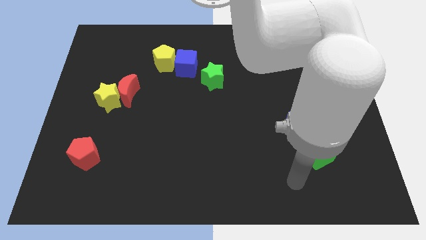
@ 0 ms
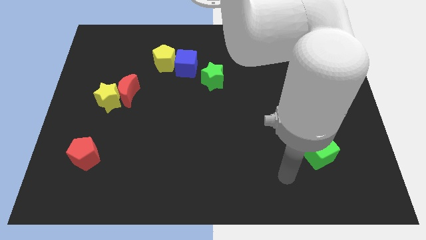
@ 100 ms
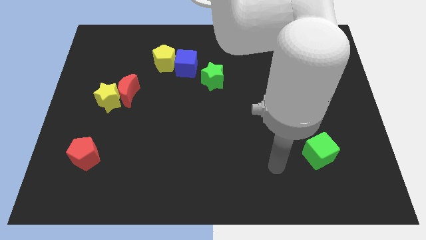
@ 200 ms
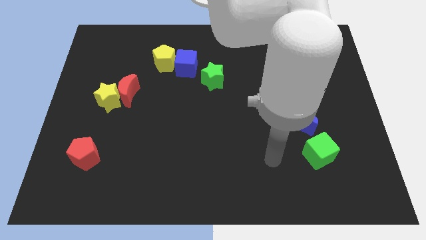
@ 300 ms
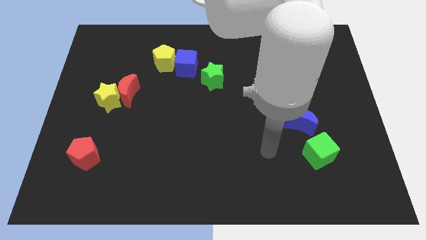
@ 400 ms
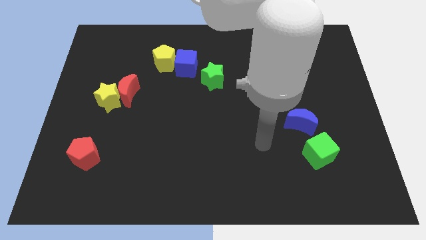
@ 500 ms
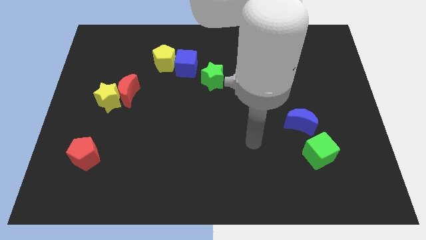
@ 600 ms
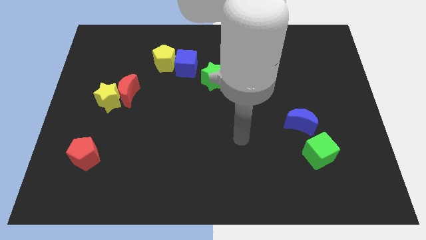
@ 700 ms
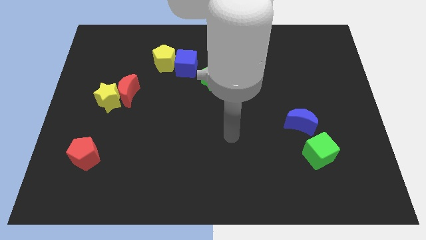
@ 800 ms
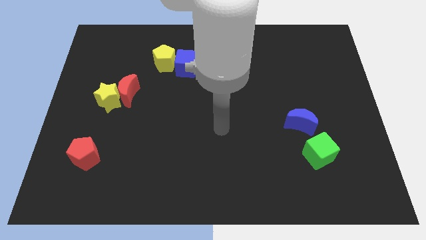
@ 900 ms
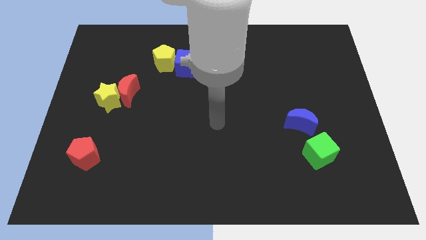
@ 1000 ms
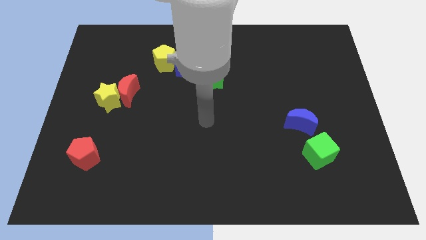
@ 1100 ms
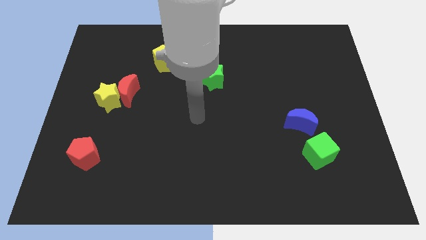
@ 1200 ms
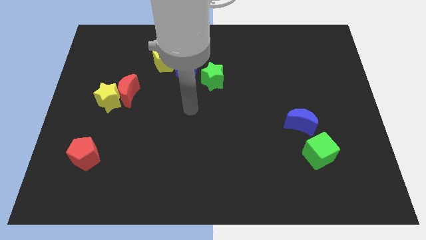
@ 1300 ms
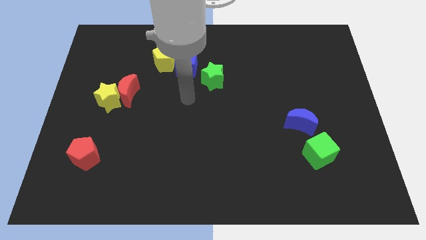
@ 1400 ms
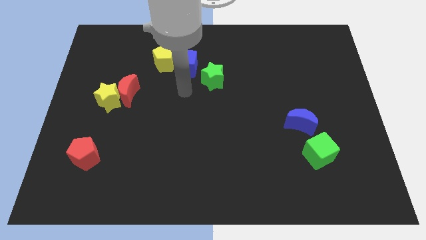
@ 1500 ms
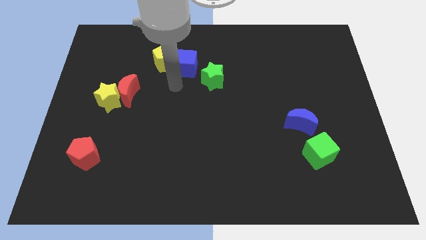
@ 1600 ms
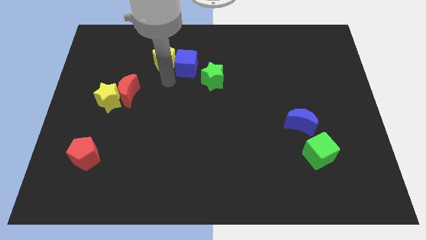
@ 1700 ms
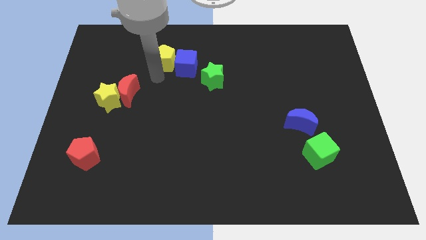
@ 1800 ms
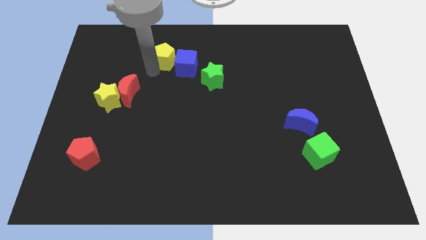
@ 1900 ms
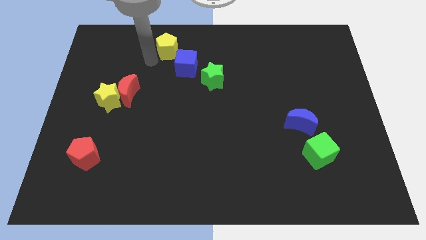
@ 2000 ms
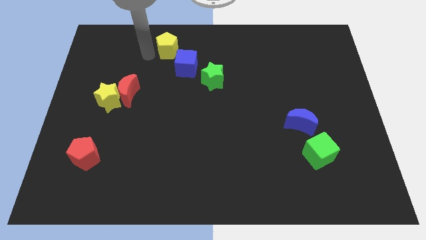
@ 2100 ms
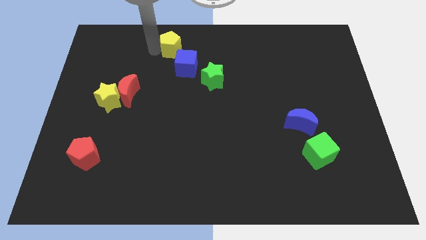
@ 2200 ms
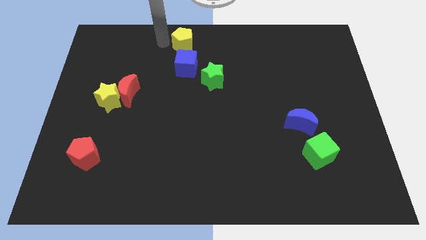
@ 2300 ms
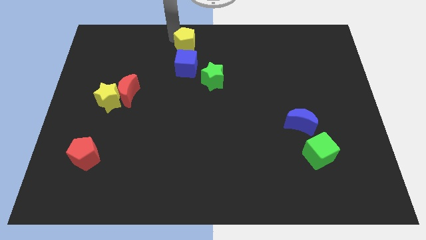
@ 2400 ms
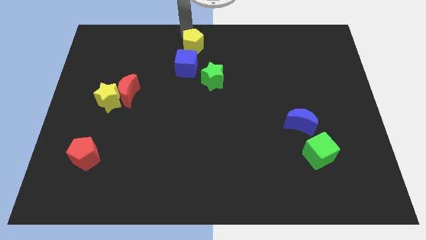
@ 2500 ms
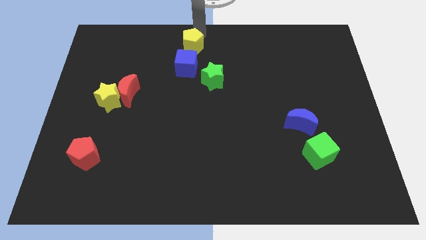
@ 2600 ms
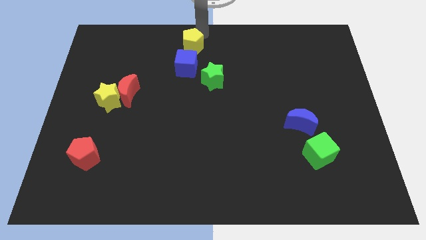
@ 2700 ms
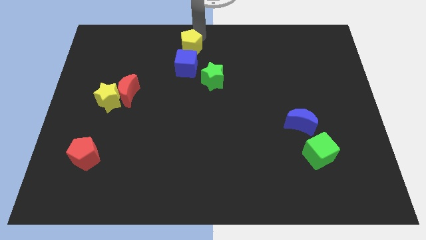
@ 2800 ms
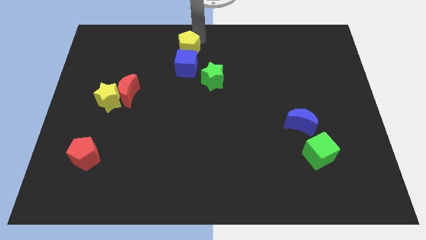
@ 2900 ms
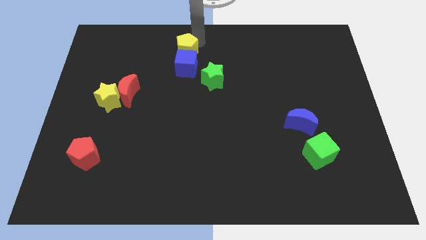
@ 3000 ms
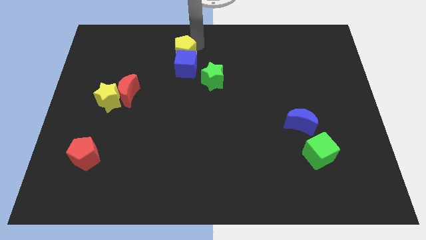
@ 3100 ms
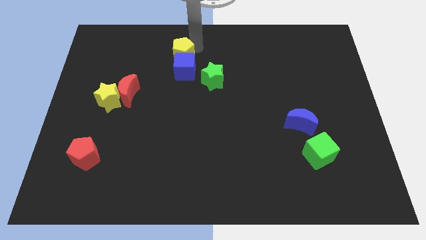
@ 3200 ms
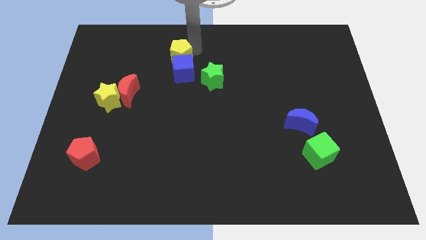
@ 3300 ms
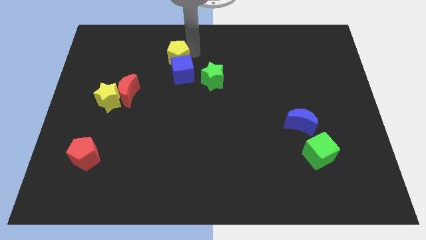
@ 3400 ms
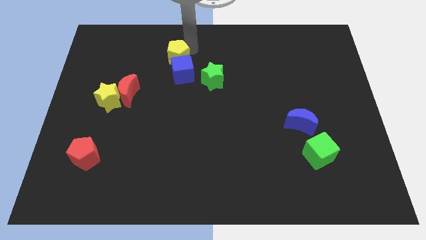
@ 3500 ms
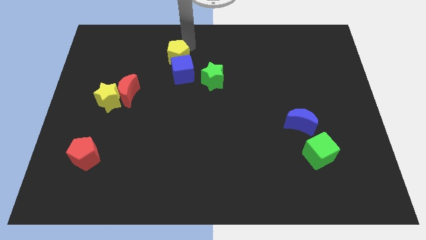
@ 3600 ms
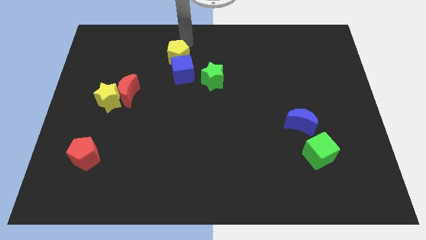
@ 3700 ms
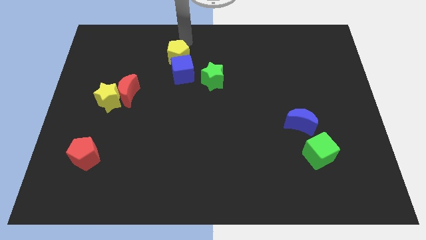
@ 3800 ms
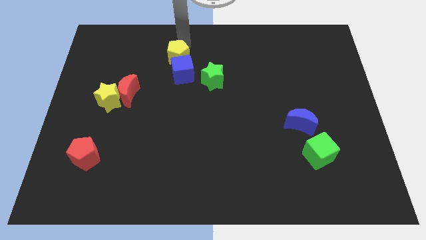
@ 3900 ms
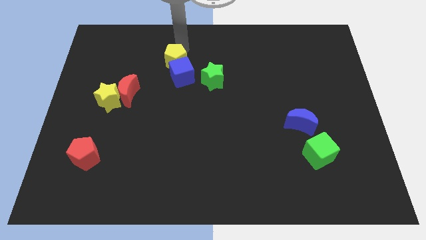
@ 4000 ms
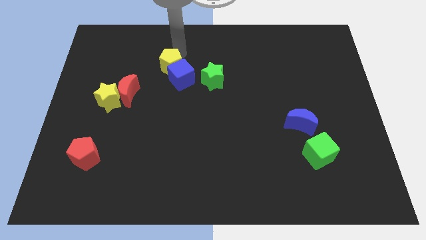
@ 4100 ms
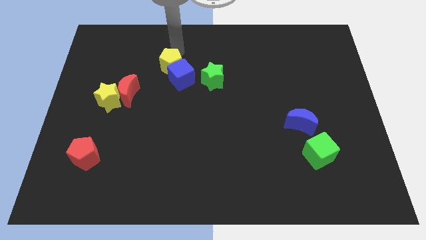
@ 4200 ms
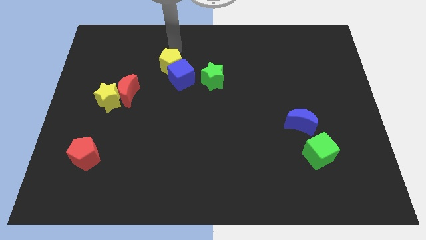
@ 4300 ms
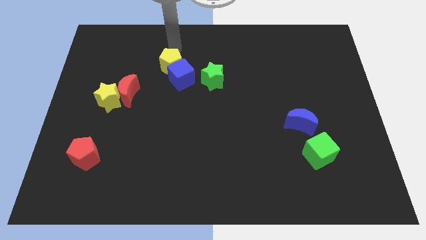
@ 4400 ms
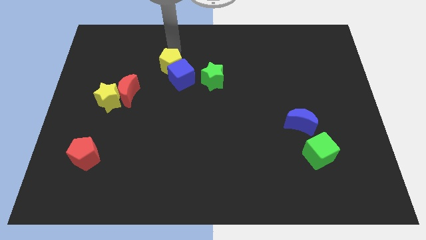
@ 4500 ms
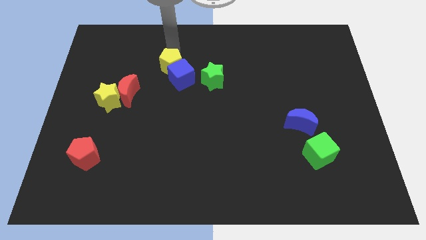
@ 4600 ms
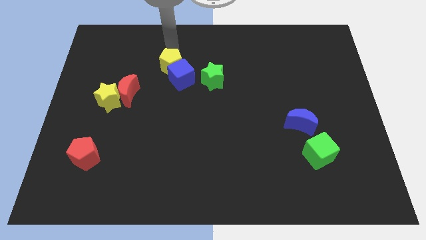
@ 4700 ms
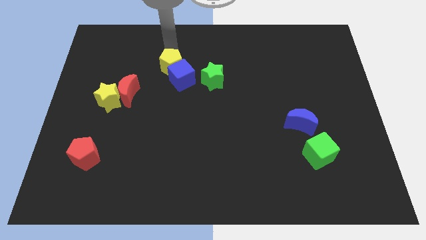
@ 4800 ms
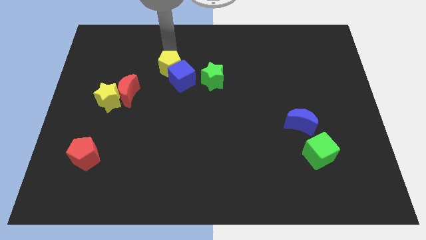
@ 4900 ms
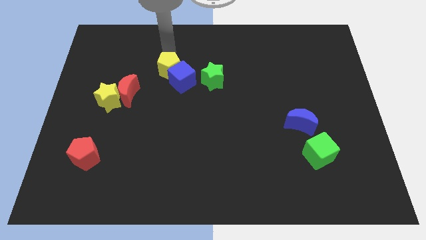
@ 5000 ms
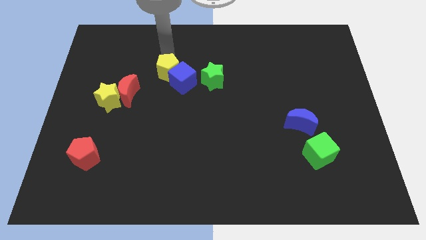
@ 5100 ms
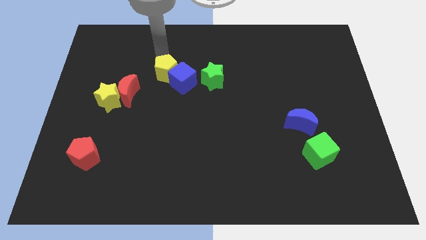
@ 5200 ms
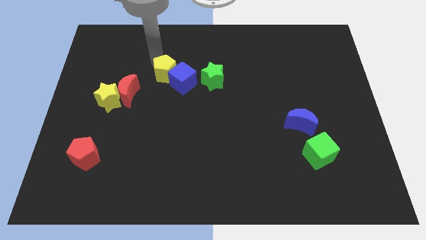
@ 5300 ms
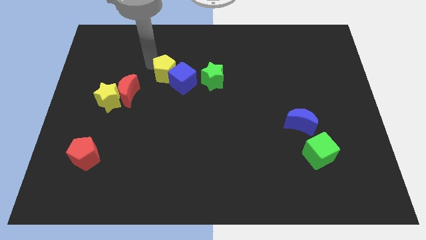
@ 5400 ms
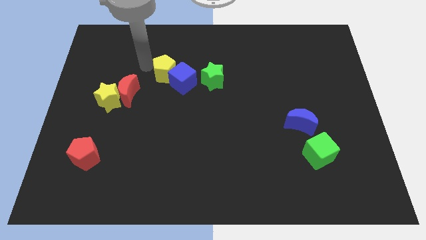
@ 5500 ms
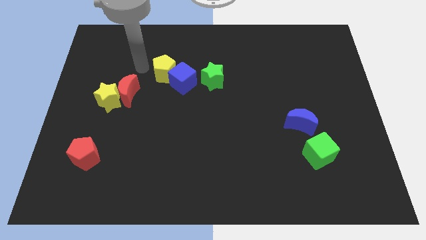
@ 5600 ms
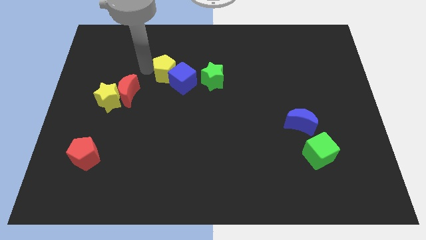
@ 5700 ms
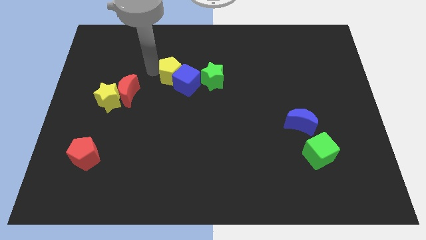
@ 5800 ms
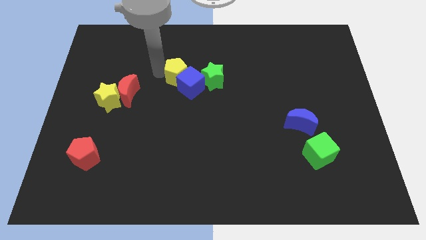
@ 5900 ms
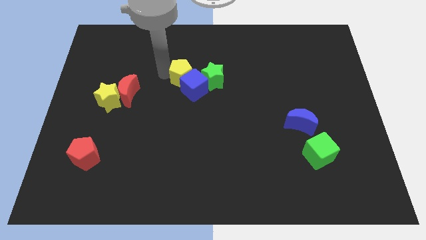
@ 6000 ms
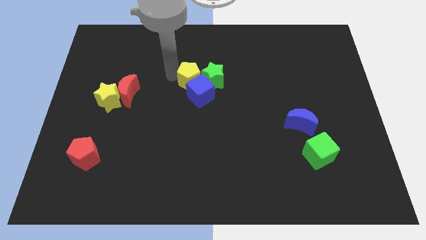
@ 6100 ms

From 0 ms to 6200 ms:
push the yellow pentagon next to the green star
